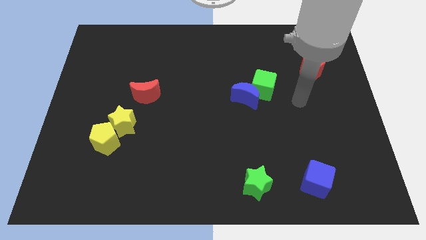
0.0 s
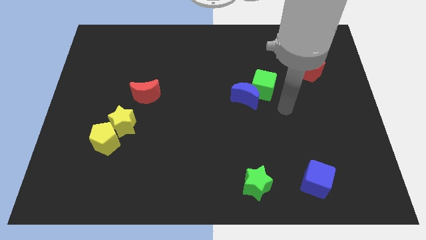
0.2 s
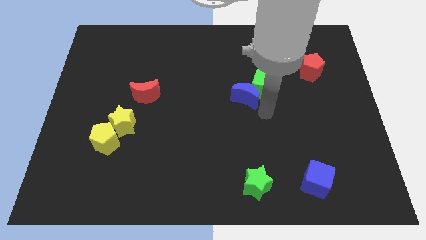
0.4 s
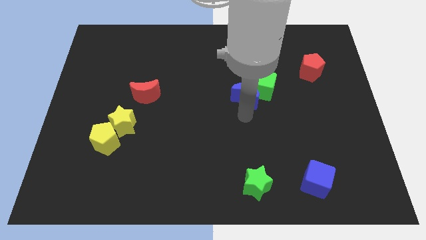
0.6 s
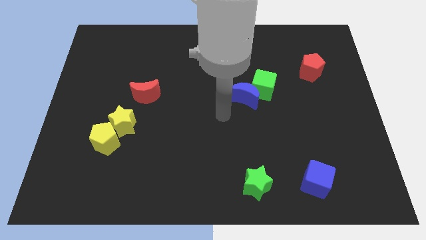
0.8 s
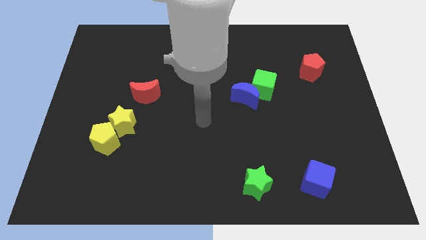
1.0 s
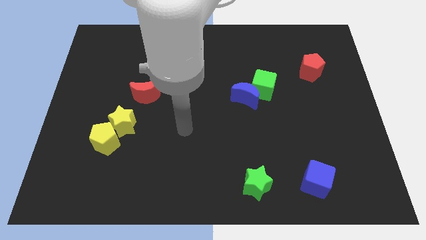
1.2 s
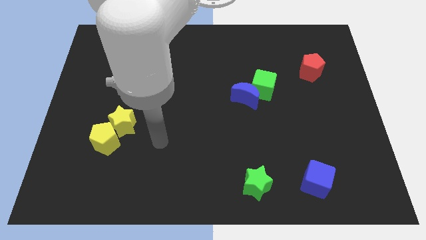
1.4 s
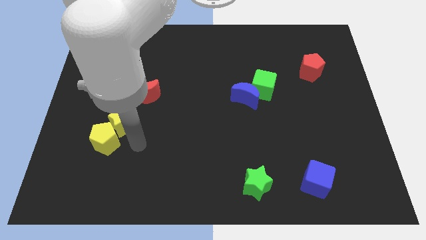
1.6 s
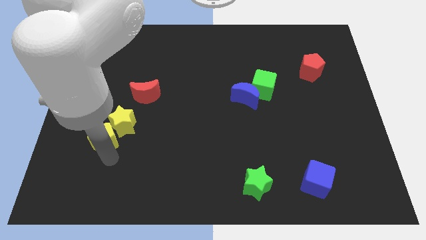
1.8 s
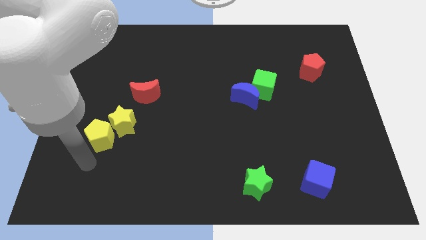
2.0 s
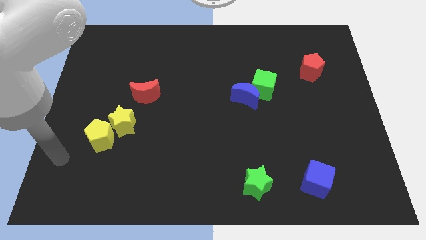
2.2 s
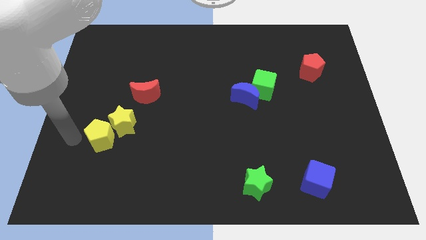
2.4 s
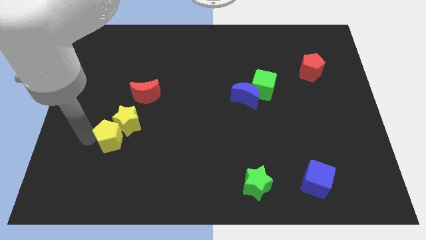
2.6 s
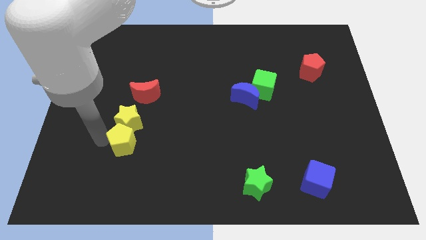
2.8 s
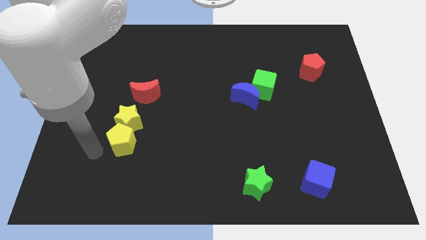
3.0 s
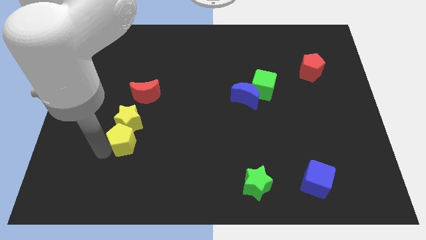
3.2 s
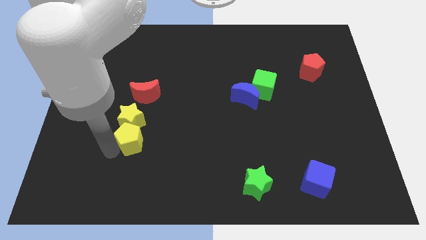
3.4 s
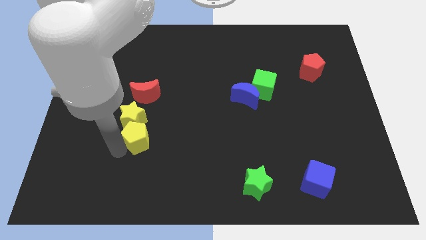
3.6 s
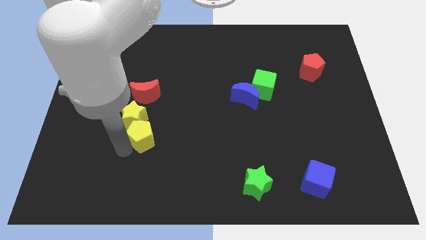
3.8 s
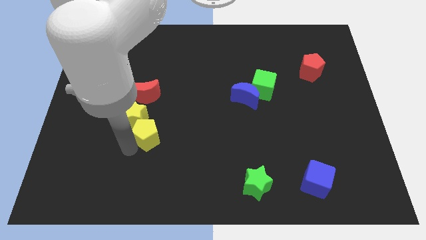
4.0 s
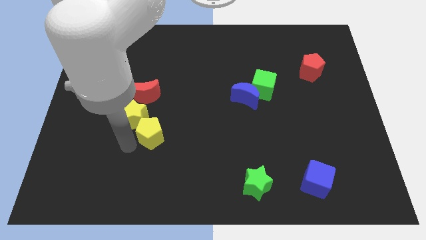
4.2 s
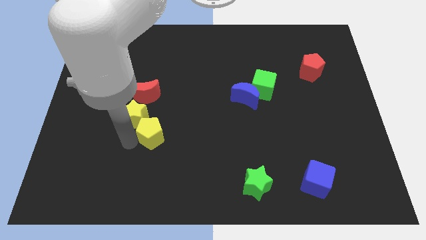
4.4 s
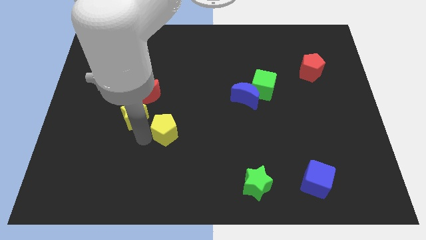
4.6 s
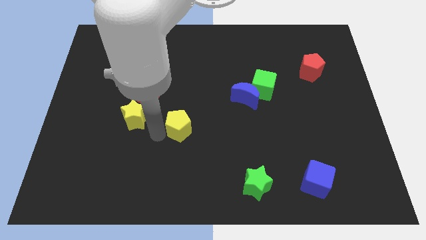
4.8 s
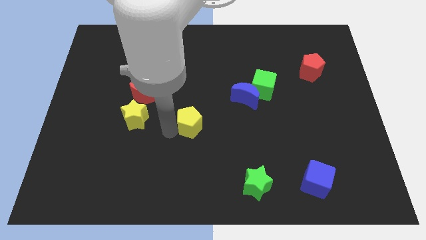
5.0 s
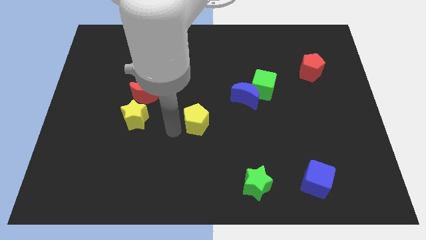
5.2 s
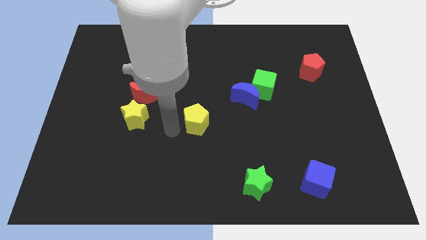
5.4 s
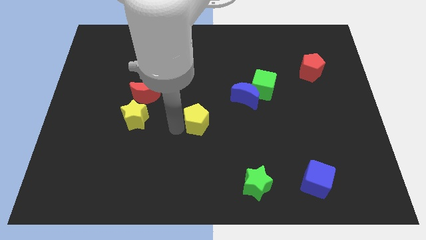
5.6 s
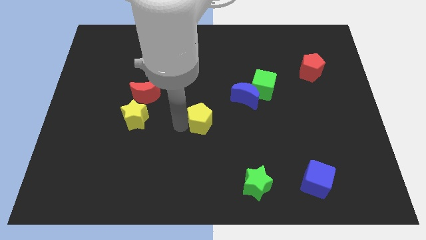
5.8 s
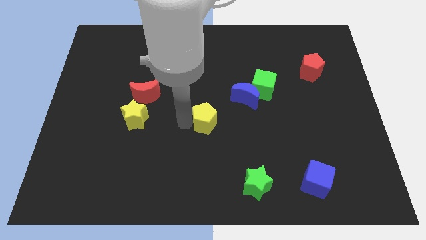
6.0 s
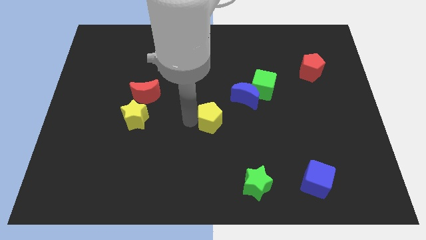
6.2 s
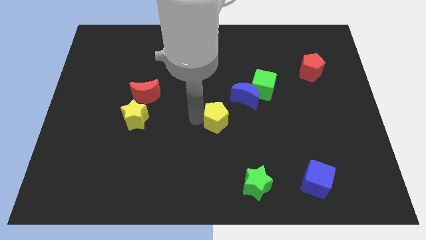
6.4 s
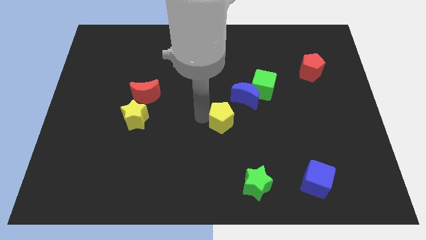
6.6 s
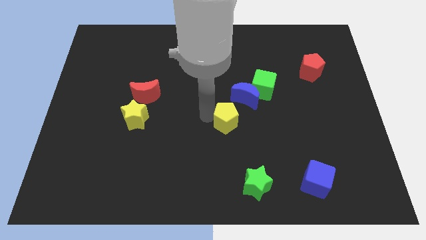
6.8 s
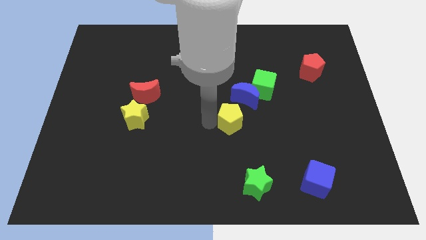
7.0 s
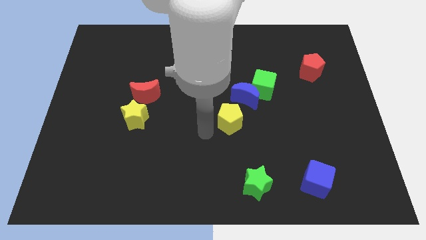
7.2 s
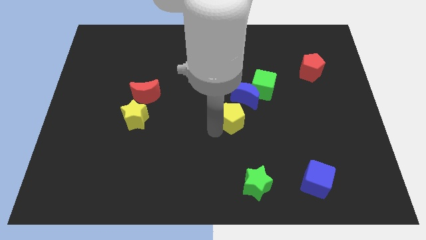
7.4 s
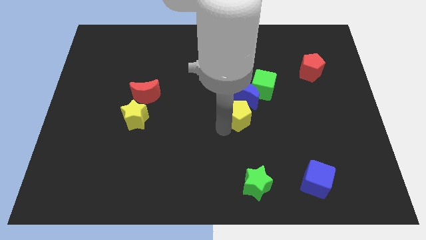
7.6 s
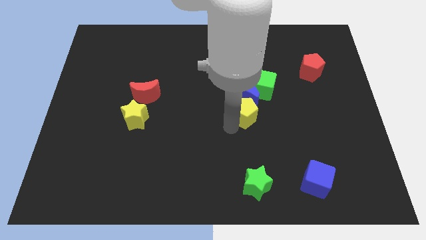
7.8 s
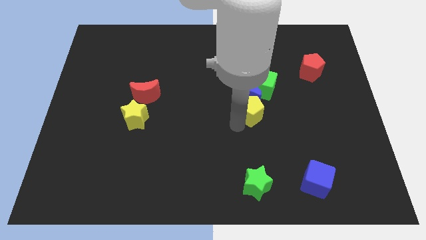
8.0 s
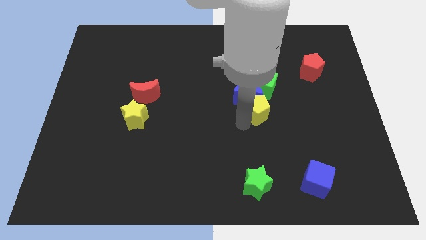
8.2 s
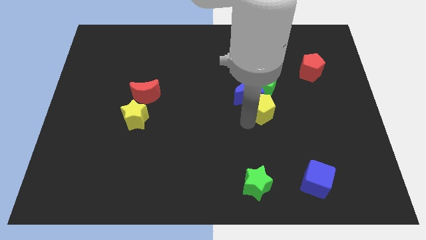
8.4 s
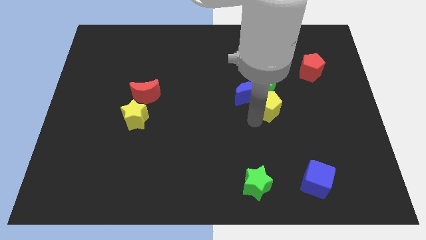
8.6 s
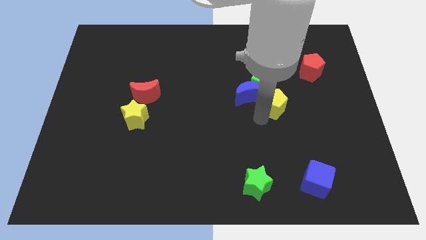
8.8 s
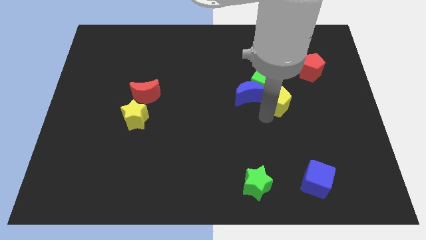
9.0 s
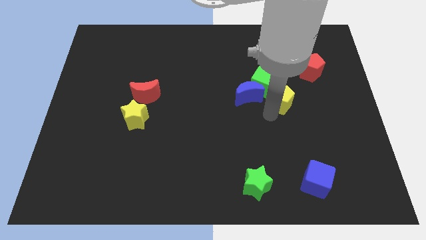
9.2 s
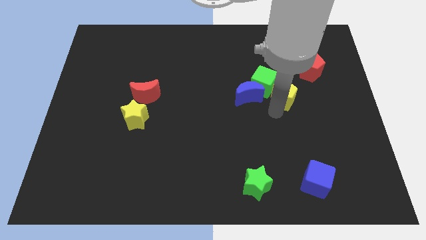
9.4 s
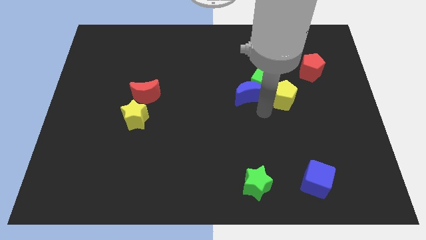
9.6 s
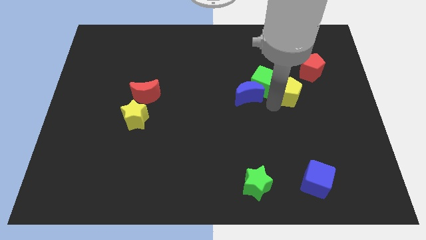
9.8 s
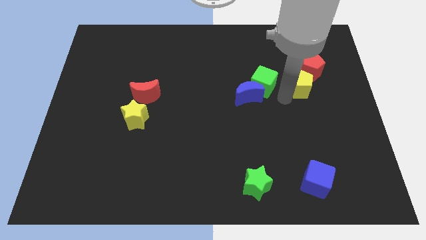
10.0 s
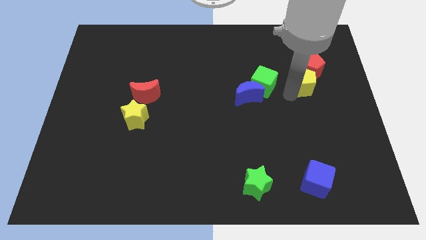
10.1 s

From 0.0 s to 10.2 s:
push the yellow pentagon close to the red pentagon

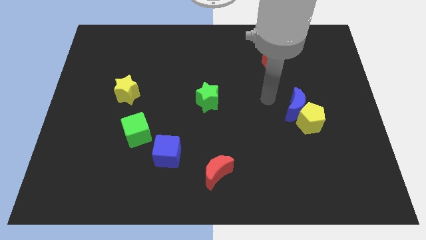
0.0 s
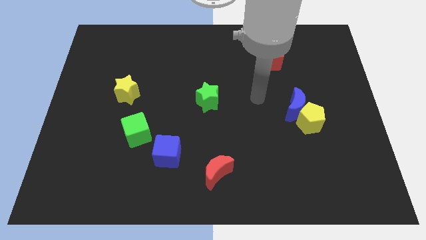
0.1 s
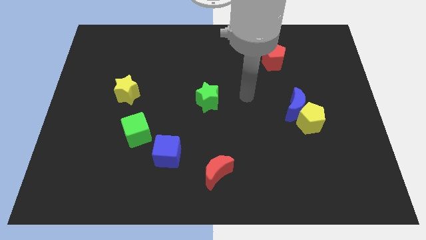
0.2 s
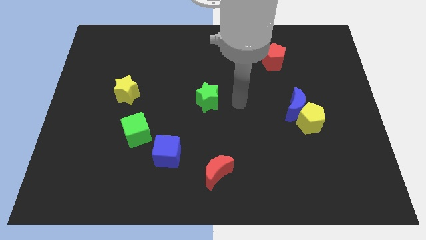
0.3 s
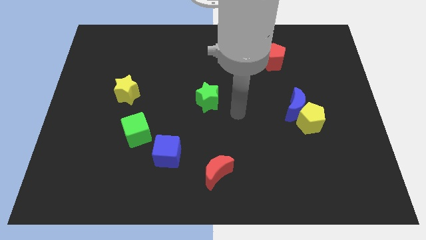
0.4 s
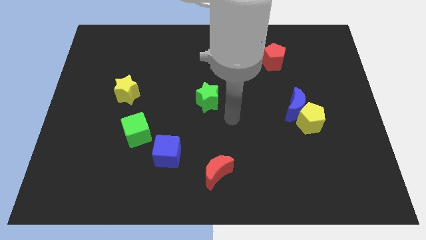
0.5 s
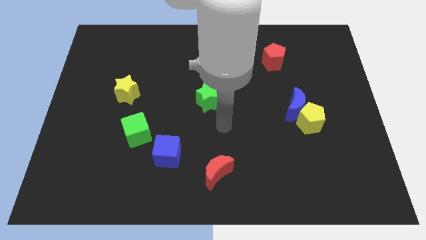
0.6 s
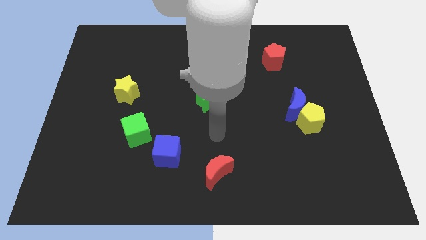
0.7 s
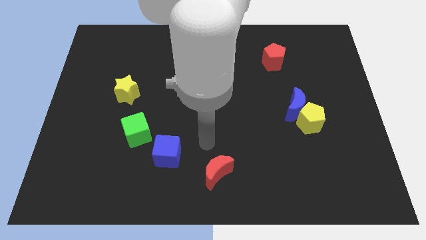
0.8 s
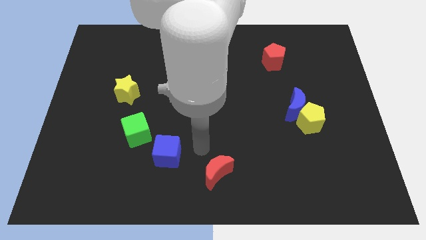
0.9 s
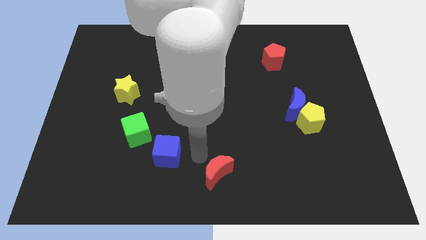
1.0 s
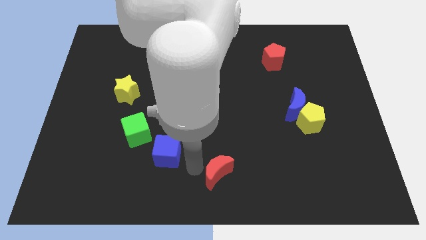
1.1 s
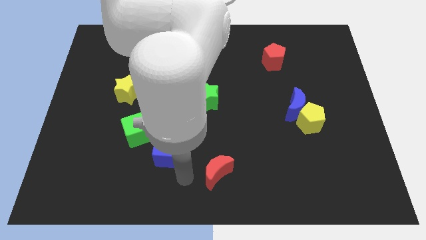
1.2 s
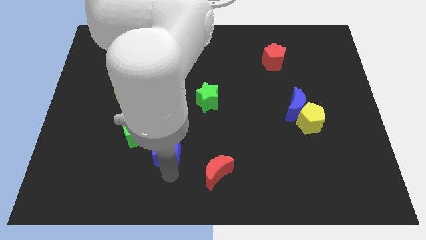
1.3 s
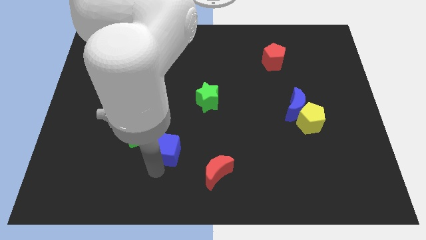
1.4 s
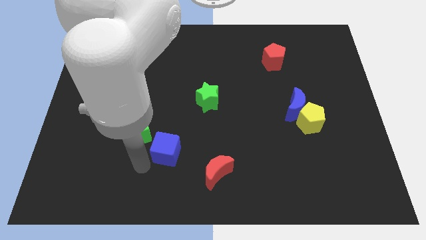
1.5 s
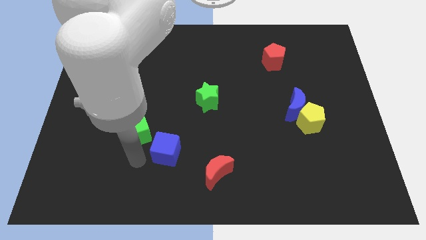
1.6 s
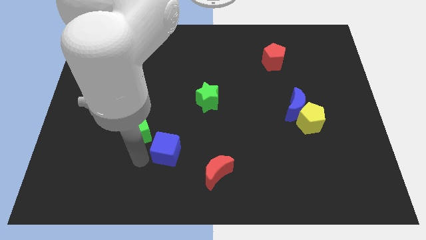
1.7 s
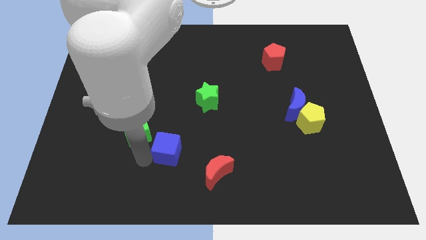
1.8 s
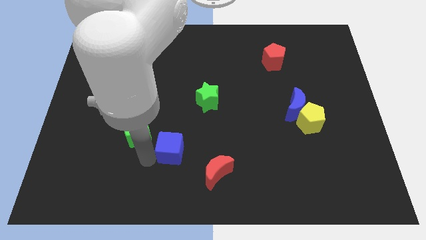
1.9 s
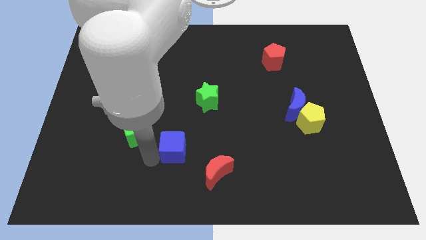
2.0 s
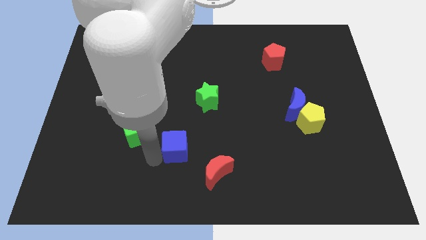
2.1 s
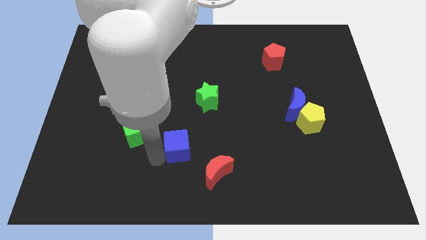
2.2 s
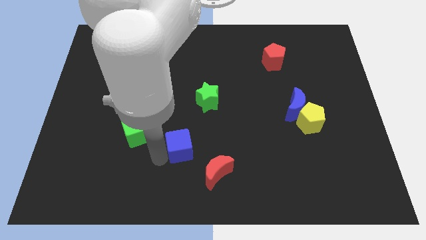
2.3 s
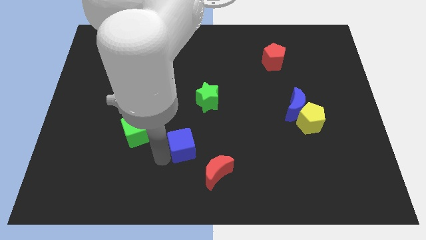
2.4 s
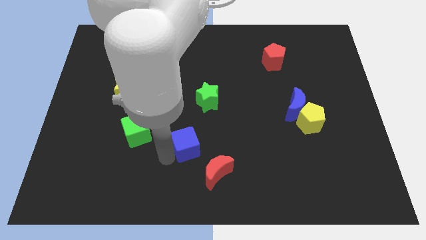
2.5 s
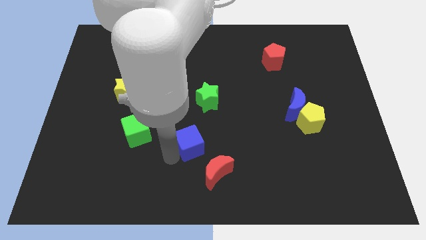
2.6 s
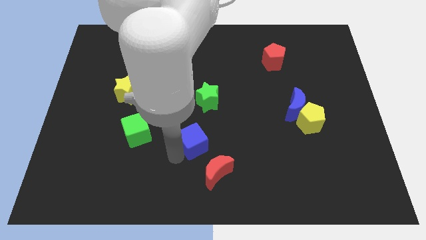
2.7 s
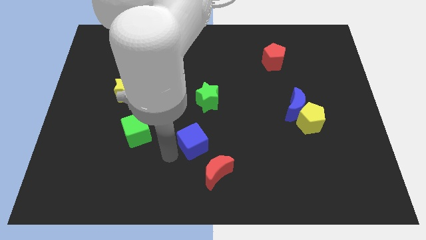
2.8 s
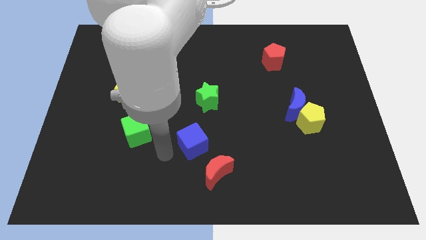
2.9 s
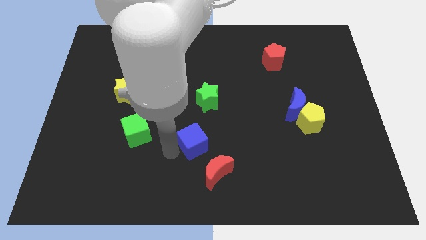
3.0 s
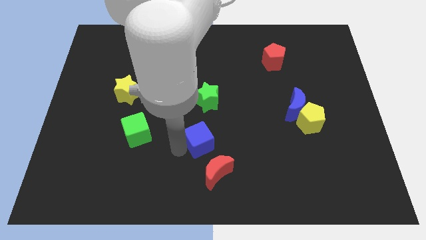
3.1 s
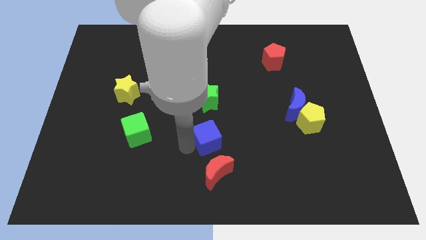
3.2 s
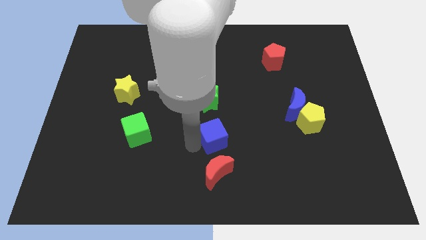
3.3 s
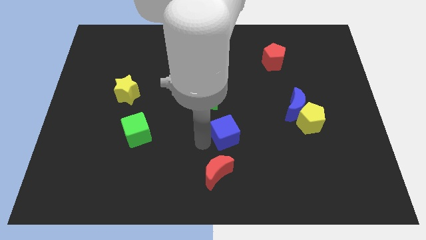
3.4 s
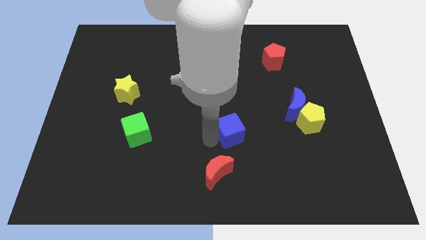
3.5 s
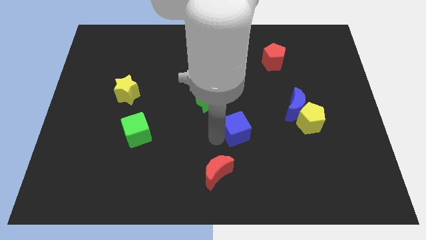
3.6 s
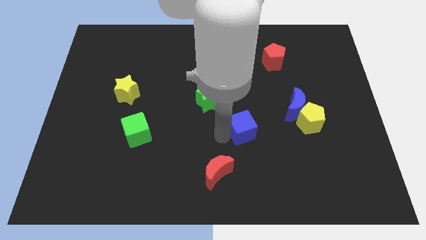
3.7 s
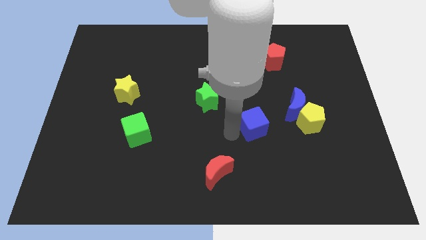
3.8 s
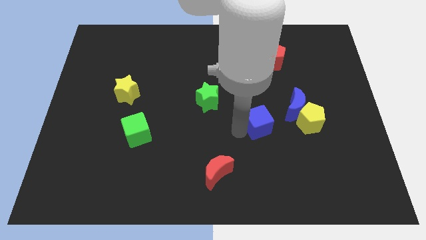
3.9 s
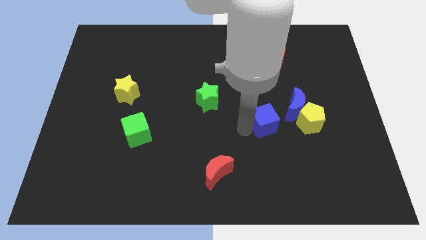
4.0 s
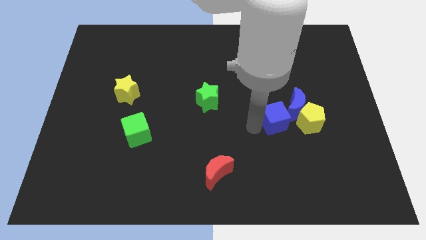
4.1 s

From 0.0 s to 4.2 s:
push the blue cube close to the blue moon
